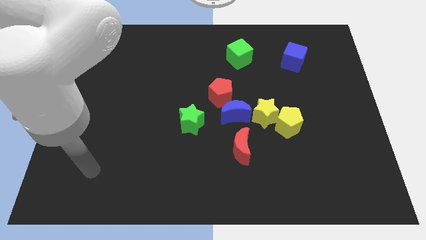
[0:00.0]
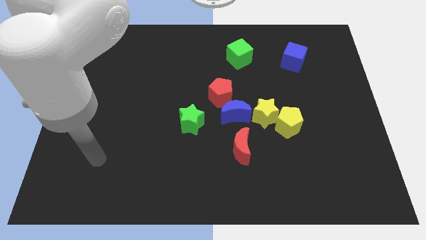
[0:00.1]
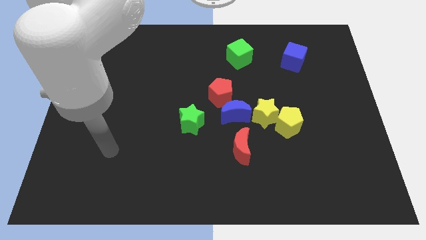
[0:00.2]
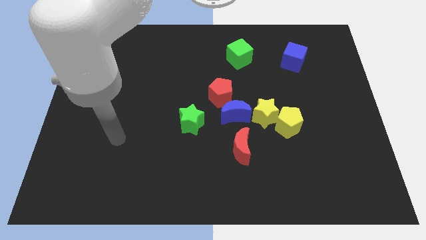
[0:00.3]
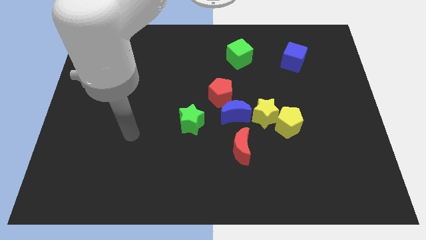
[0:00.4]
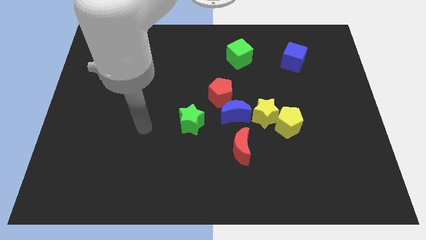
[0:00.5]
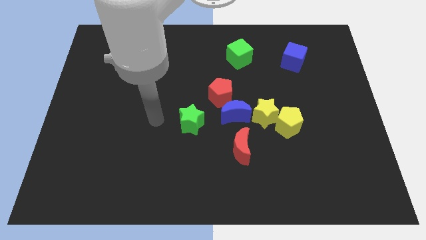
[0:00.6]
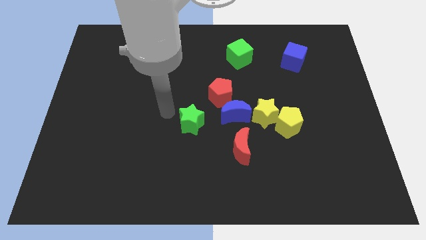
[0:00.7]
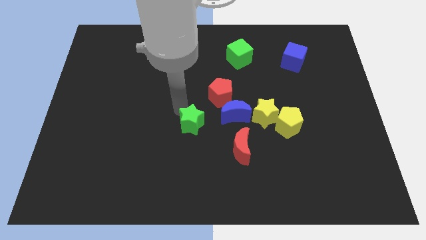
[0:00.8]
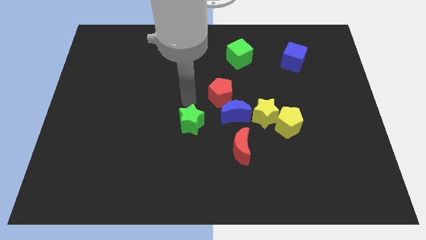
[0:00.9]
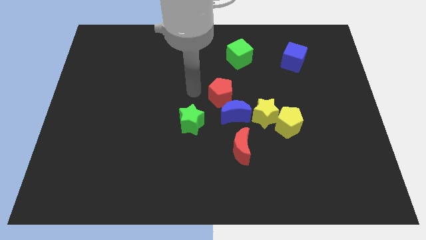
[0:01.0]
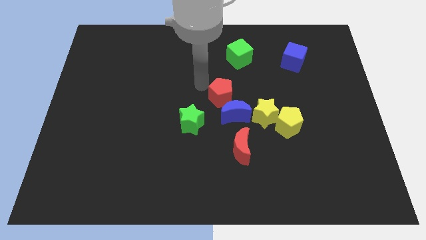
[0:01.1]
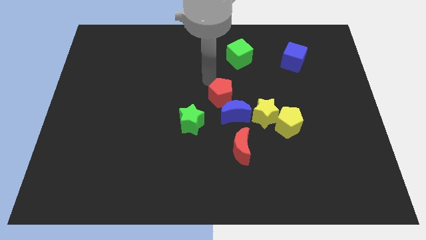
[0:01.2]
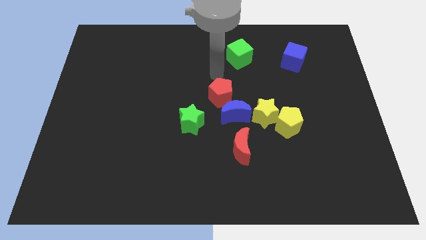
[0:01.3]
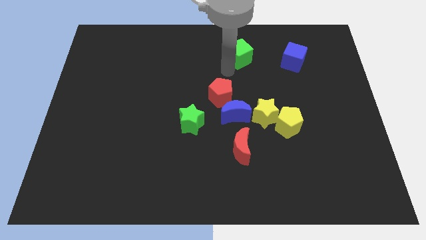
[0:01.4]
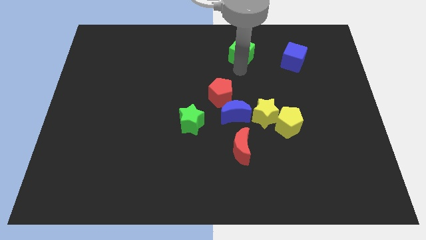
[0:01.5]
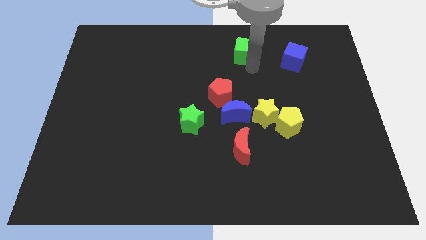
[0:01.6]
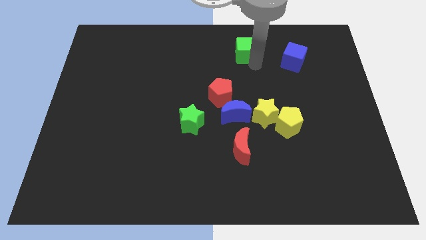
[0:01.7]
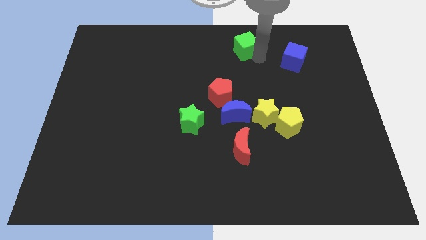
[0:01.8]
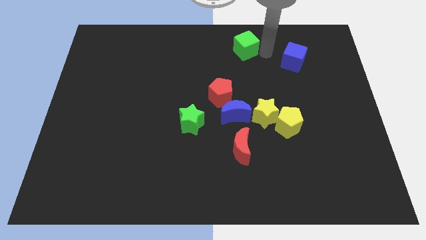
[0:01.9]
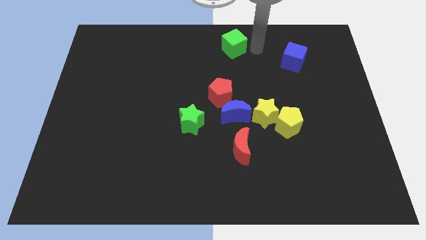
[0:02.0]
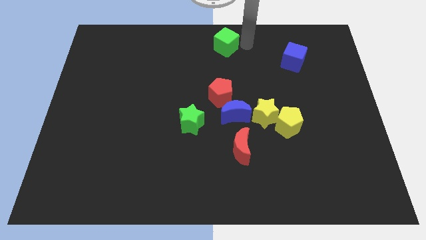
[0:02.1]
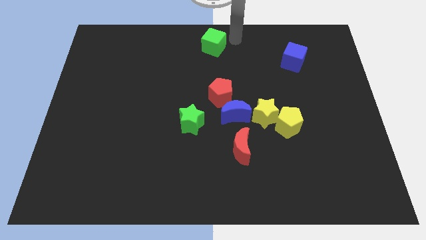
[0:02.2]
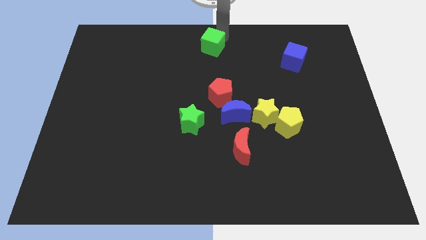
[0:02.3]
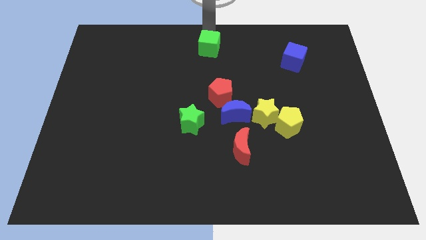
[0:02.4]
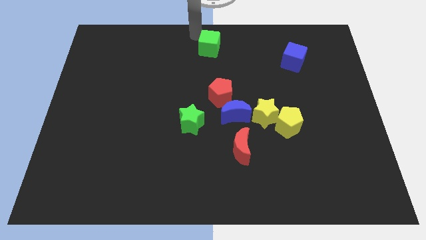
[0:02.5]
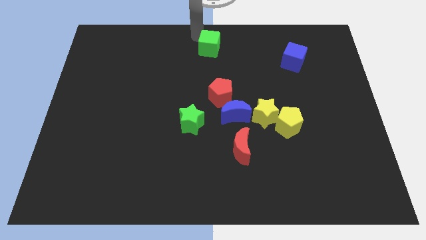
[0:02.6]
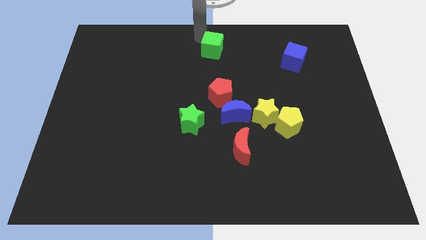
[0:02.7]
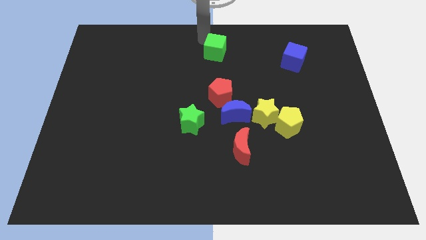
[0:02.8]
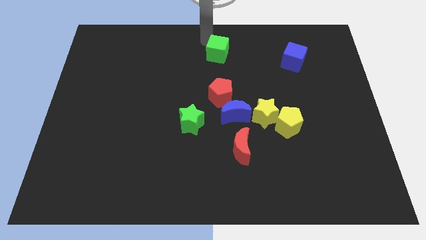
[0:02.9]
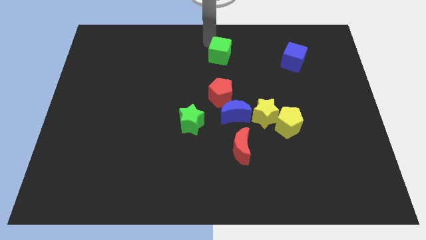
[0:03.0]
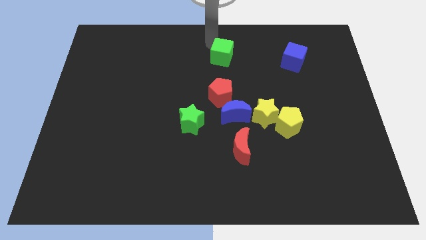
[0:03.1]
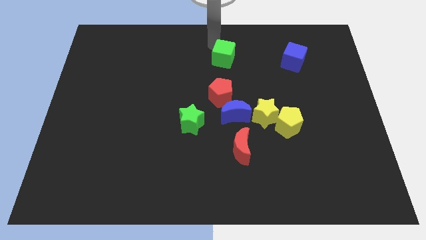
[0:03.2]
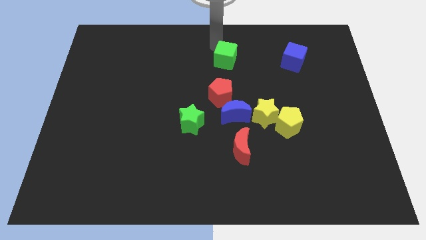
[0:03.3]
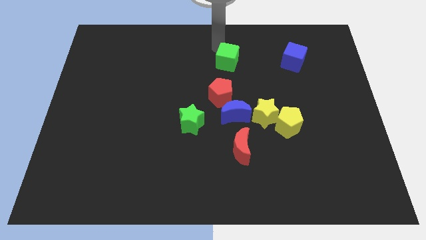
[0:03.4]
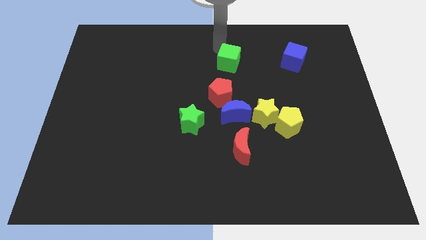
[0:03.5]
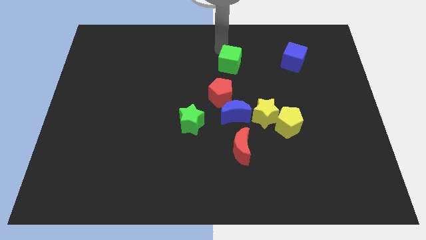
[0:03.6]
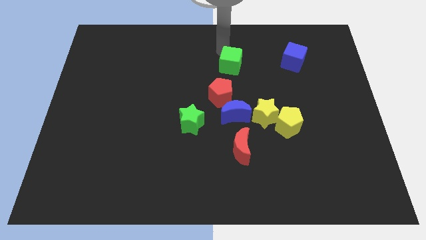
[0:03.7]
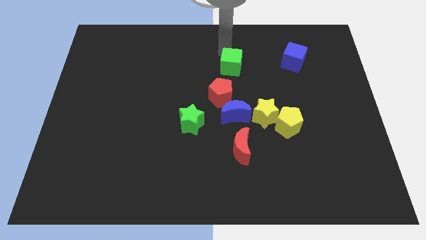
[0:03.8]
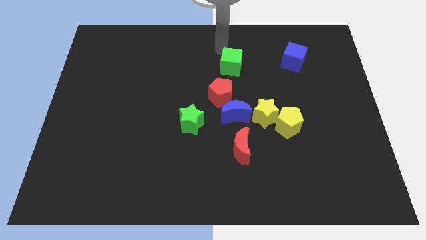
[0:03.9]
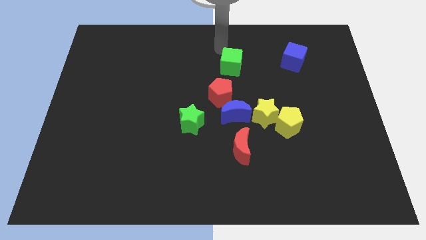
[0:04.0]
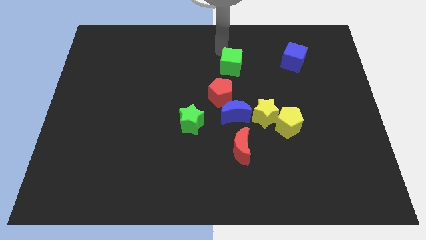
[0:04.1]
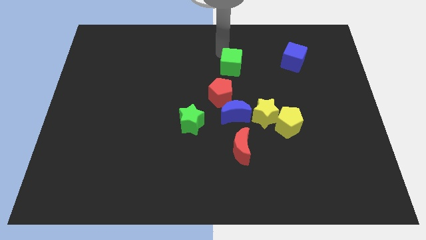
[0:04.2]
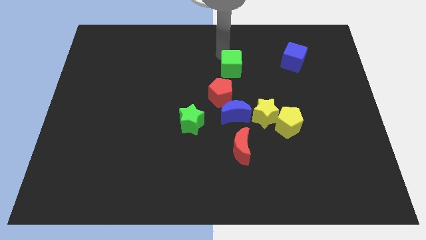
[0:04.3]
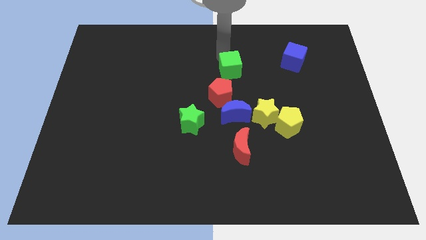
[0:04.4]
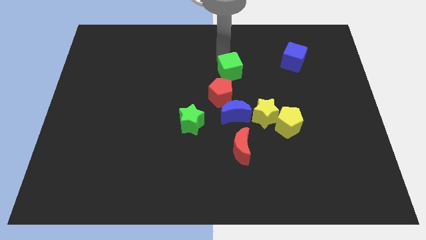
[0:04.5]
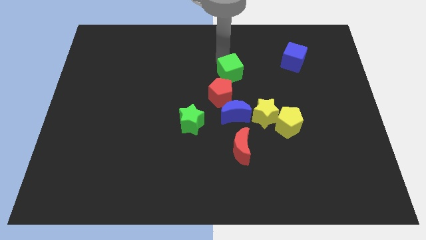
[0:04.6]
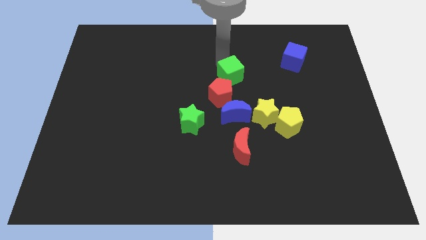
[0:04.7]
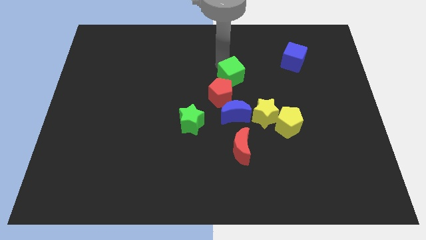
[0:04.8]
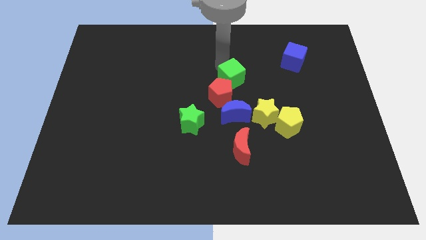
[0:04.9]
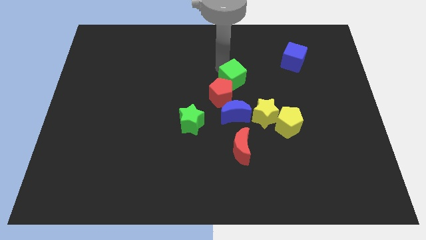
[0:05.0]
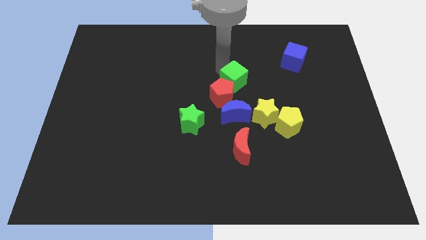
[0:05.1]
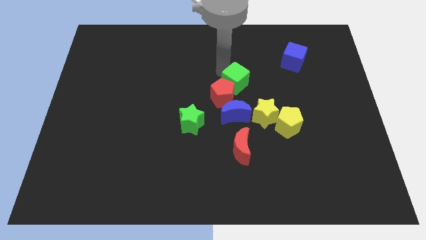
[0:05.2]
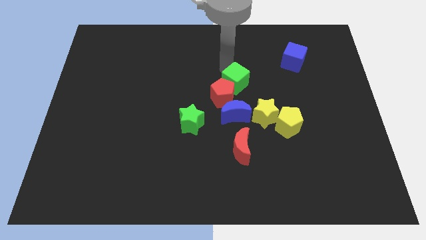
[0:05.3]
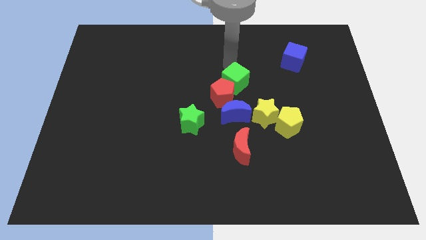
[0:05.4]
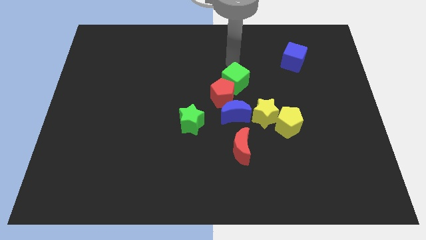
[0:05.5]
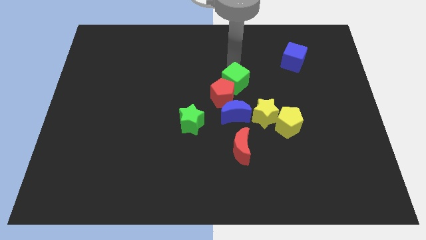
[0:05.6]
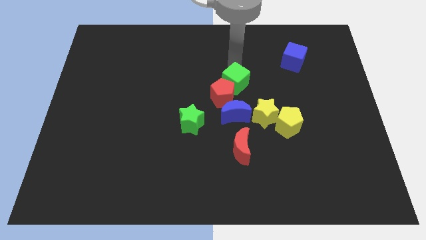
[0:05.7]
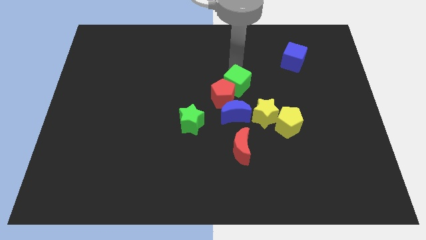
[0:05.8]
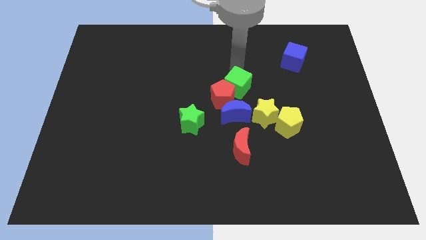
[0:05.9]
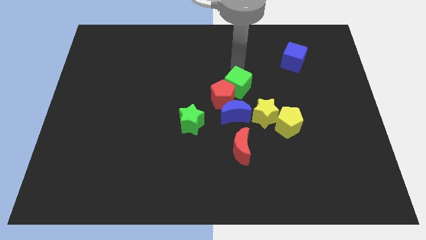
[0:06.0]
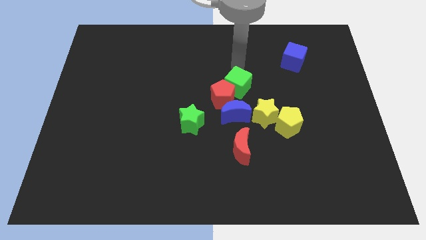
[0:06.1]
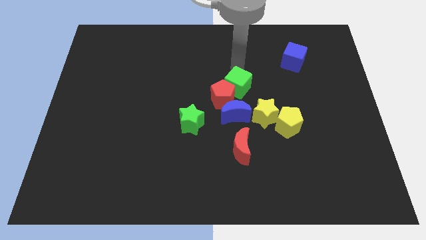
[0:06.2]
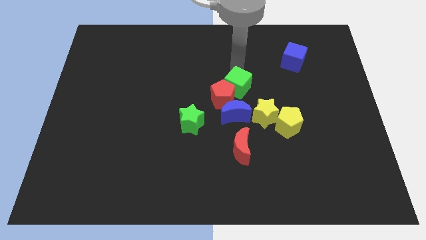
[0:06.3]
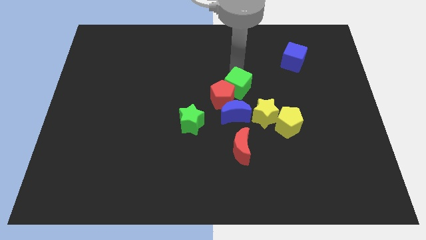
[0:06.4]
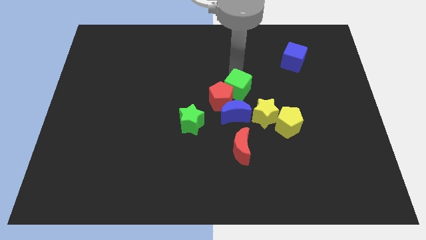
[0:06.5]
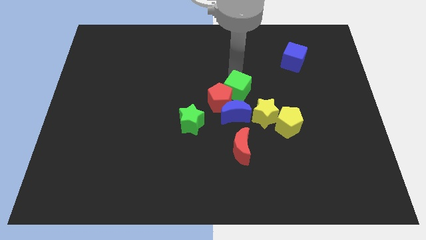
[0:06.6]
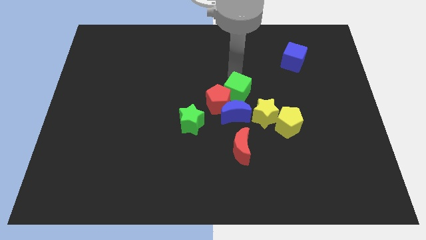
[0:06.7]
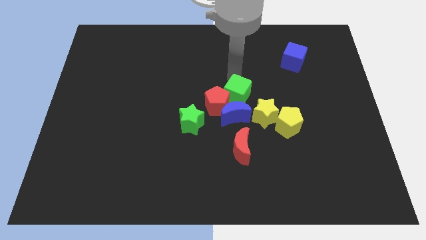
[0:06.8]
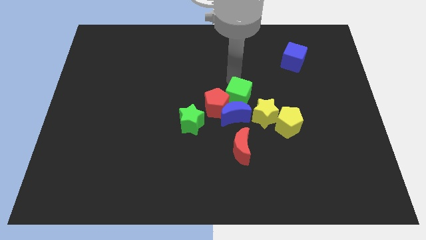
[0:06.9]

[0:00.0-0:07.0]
slide the green cube to the blue moon

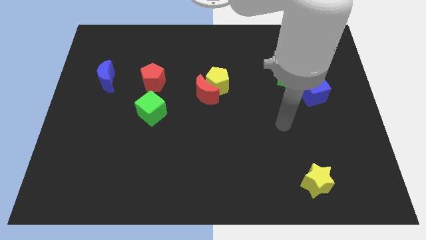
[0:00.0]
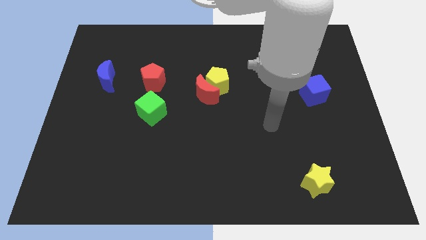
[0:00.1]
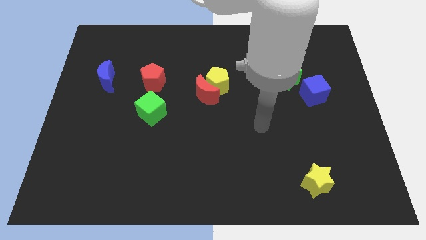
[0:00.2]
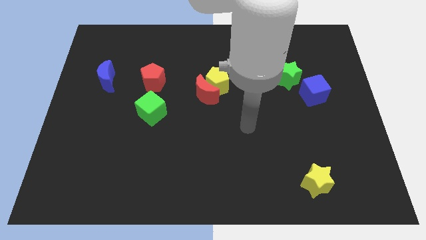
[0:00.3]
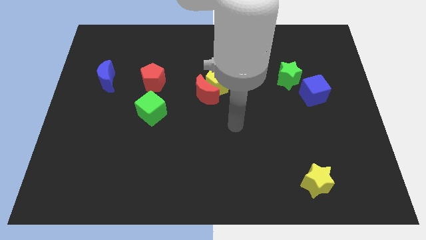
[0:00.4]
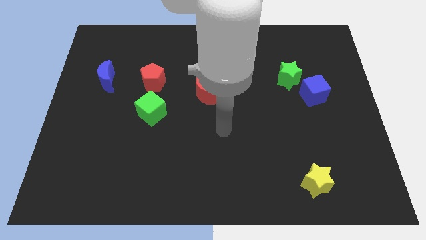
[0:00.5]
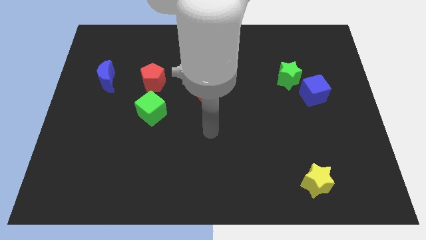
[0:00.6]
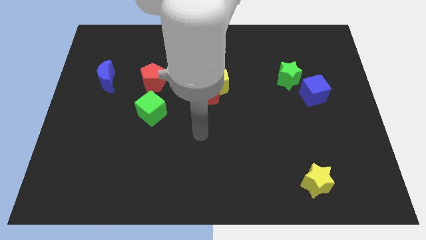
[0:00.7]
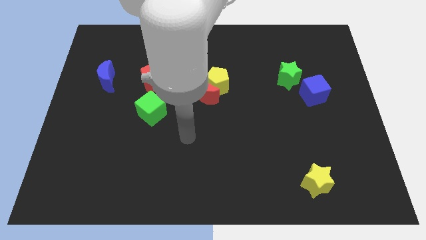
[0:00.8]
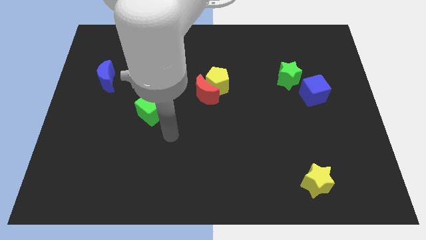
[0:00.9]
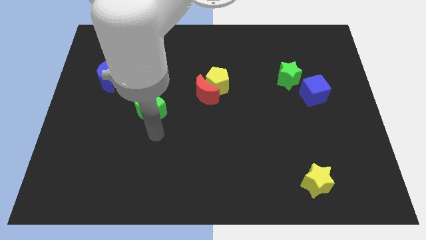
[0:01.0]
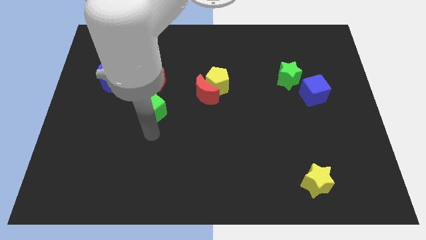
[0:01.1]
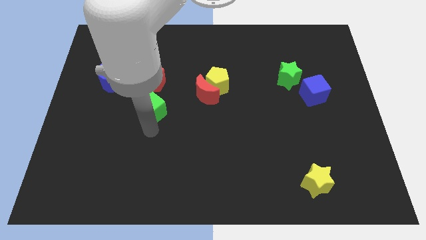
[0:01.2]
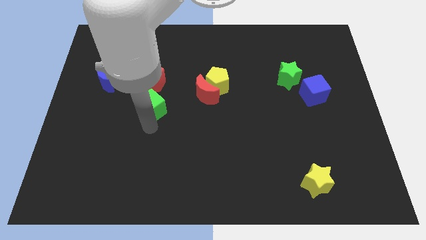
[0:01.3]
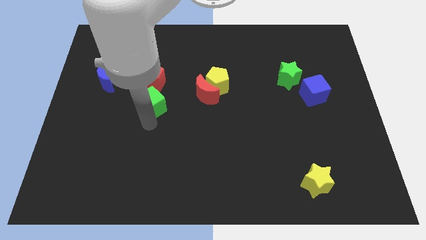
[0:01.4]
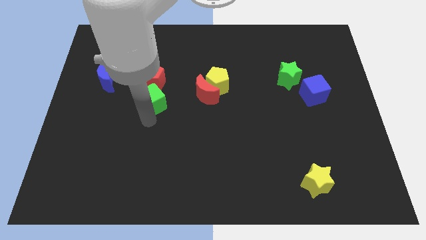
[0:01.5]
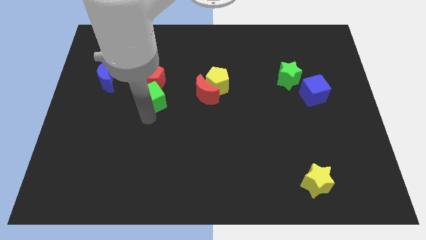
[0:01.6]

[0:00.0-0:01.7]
move the green cube next to the red pentagon
